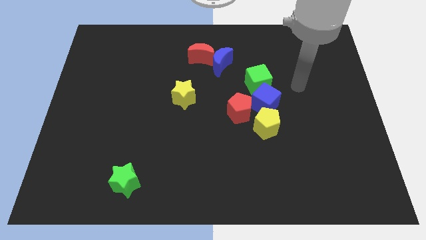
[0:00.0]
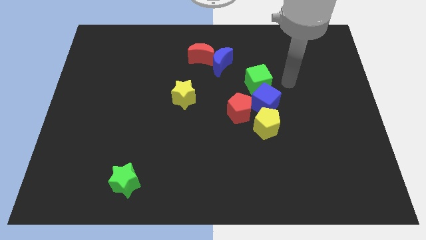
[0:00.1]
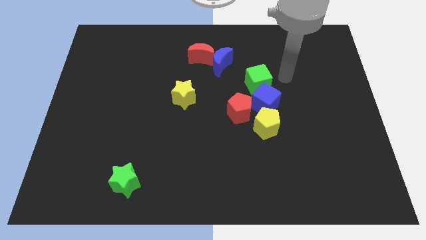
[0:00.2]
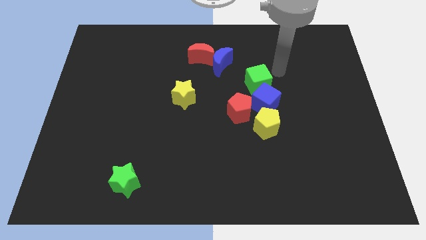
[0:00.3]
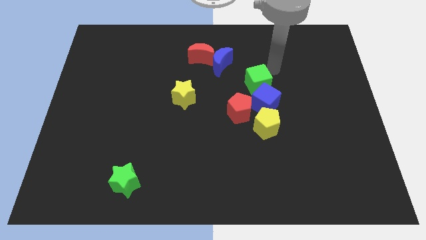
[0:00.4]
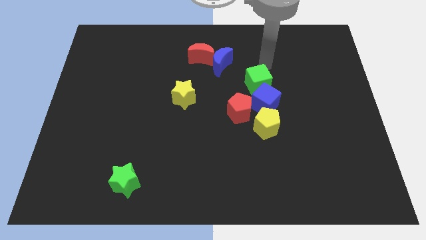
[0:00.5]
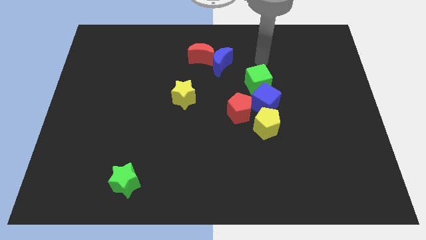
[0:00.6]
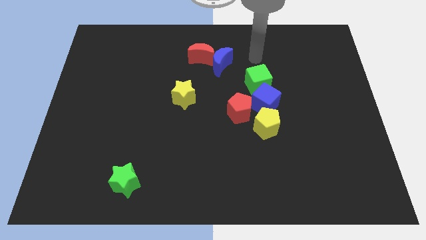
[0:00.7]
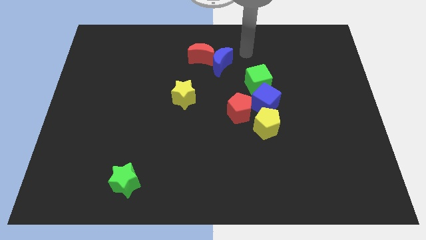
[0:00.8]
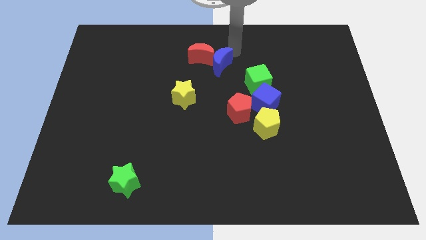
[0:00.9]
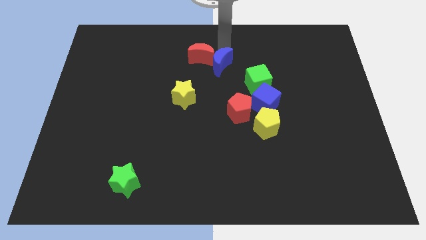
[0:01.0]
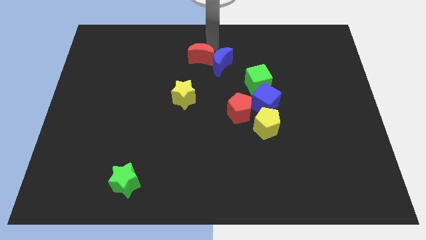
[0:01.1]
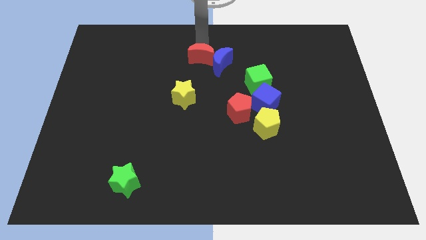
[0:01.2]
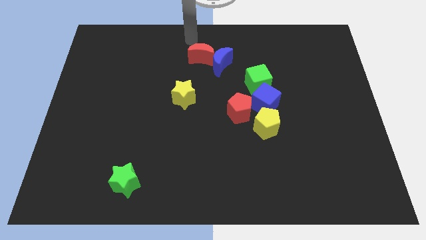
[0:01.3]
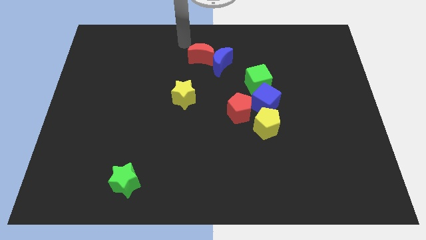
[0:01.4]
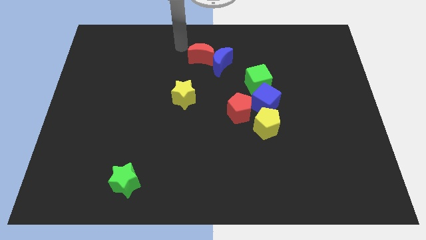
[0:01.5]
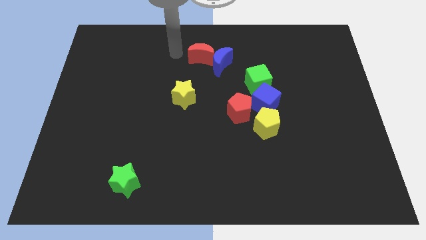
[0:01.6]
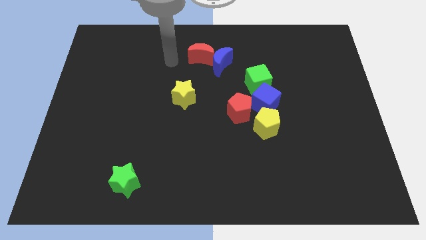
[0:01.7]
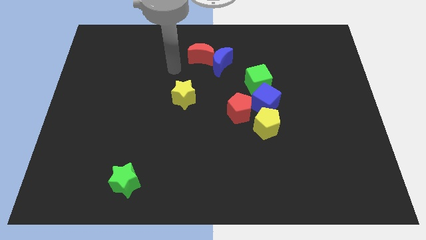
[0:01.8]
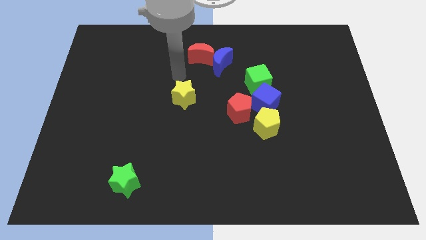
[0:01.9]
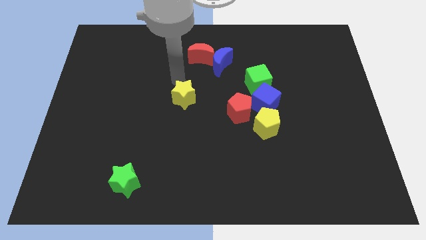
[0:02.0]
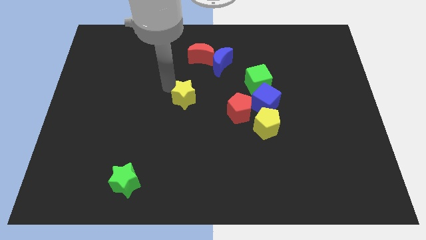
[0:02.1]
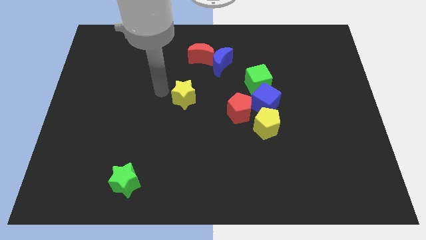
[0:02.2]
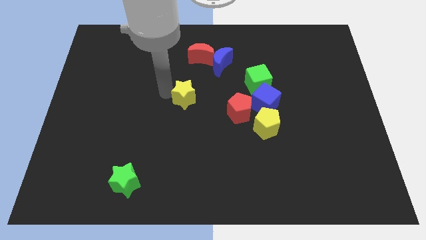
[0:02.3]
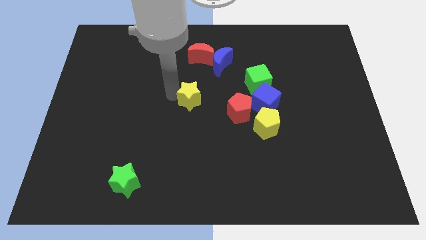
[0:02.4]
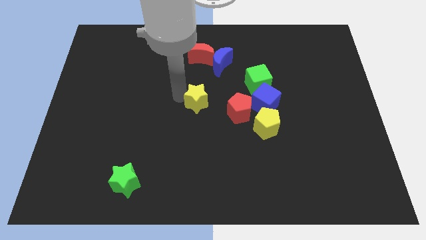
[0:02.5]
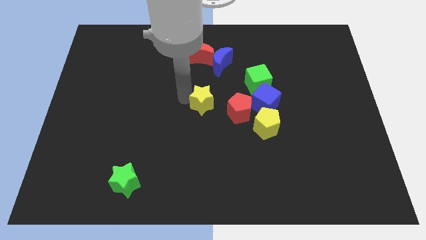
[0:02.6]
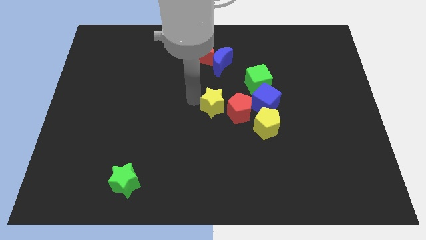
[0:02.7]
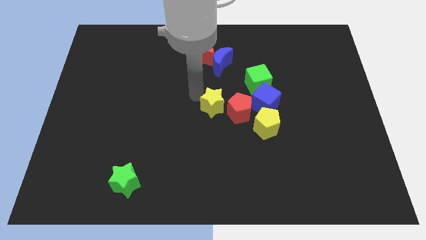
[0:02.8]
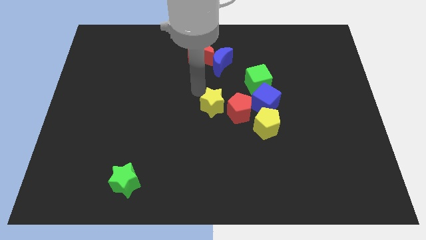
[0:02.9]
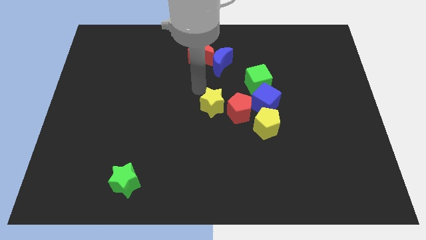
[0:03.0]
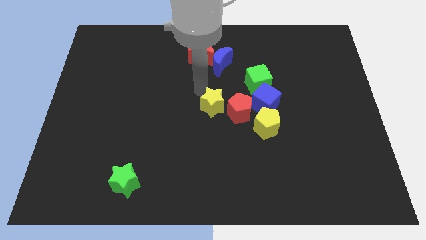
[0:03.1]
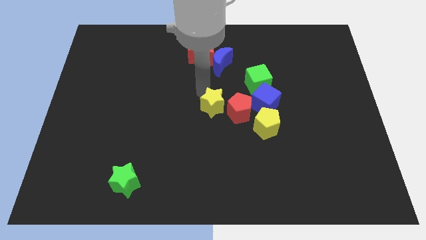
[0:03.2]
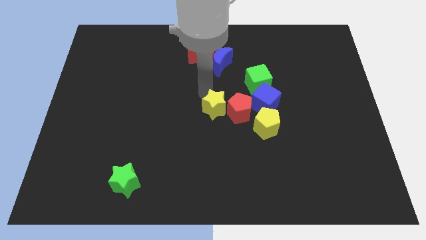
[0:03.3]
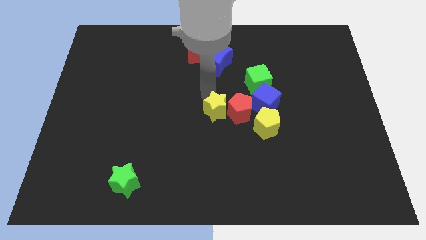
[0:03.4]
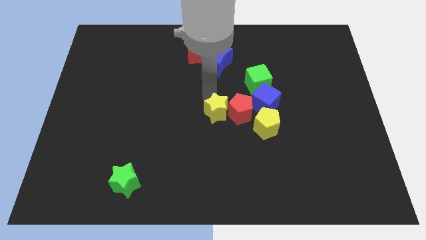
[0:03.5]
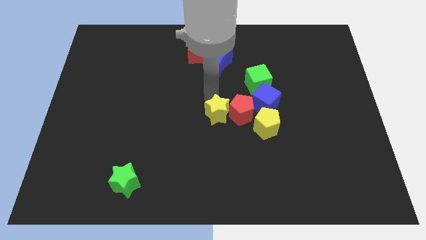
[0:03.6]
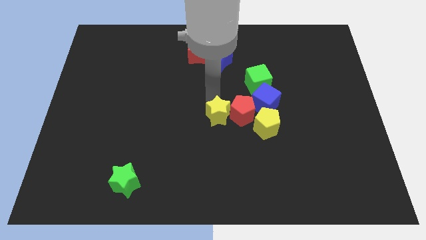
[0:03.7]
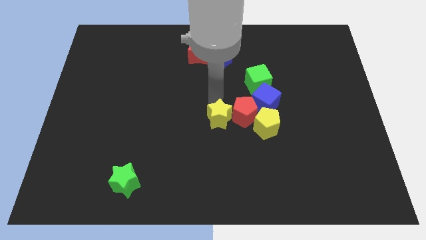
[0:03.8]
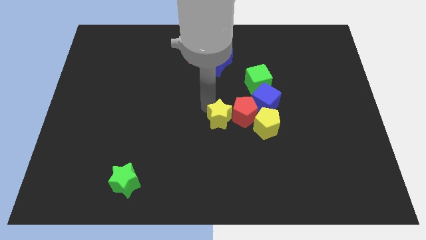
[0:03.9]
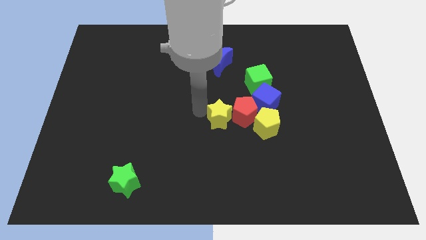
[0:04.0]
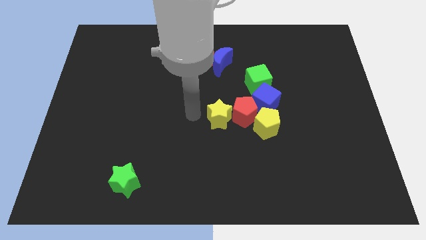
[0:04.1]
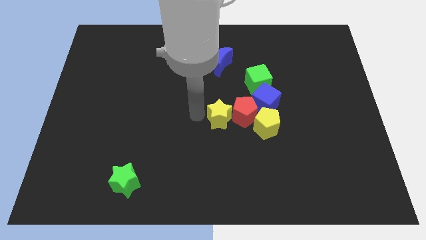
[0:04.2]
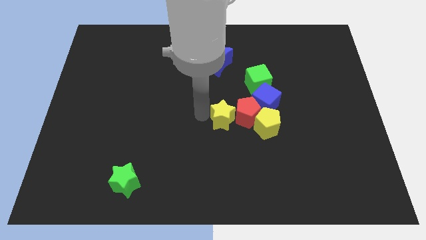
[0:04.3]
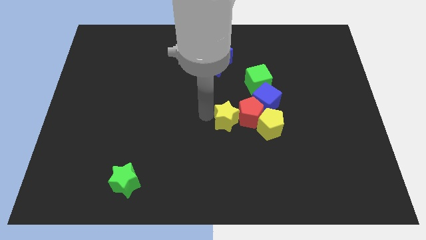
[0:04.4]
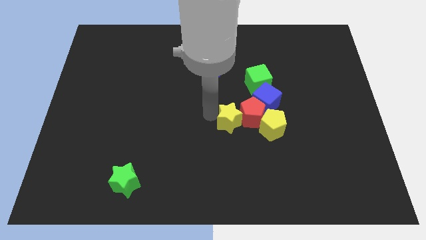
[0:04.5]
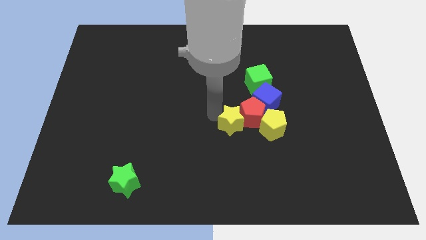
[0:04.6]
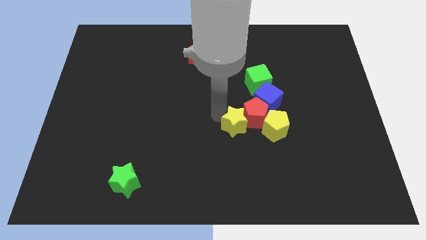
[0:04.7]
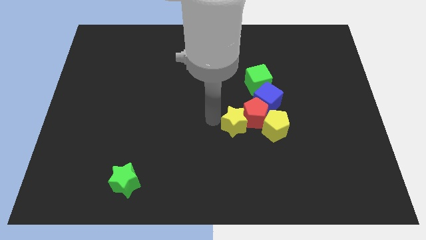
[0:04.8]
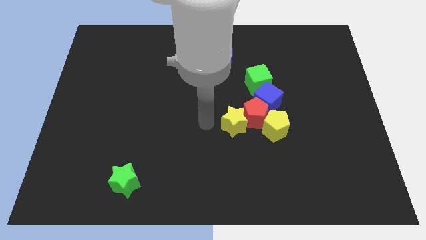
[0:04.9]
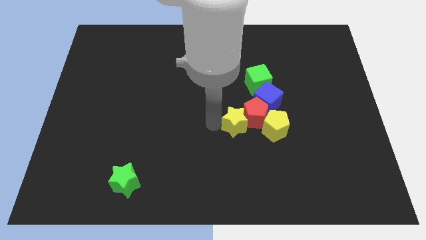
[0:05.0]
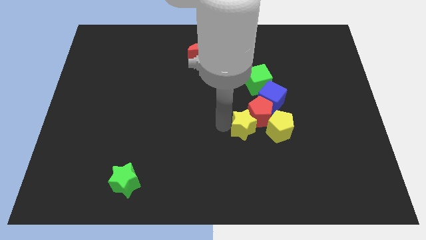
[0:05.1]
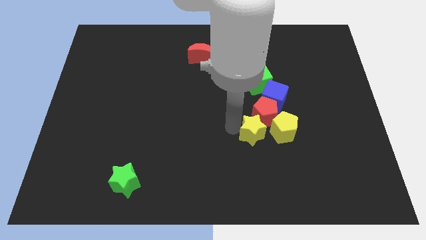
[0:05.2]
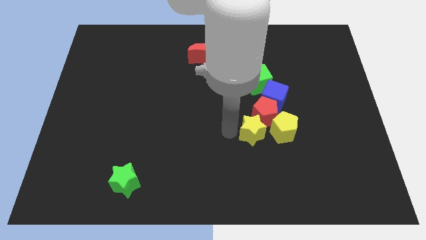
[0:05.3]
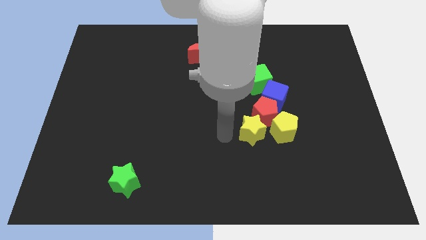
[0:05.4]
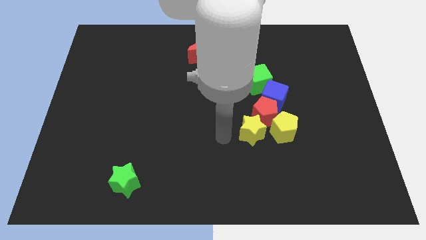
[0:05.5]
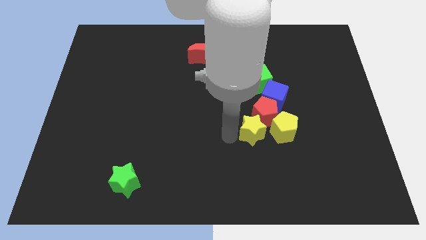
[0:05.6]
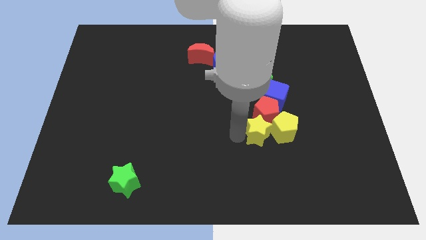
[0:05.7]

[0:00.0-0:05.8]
slide the yellow star close to the yellow pentagon
